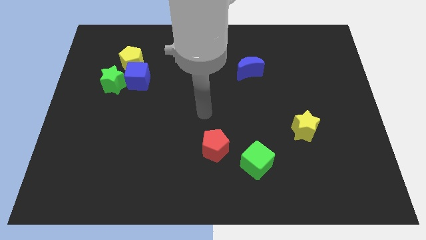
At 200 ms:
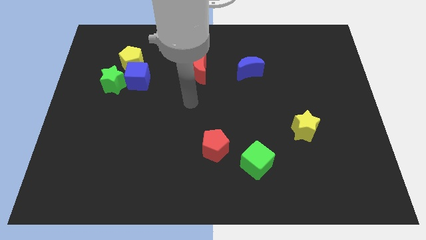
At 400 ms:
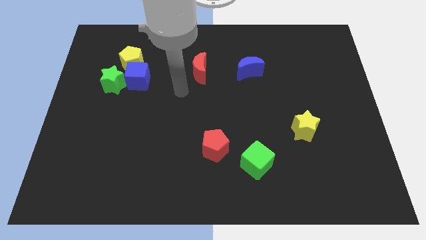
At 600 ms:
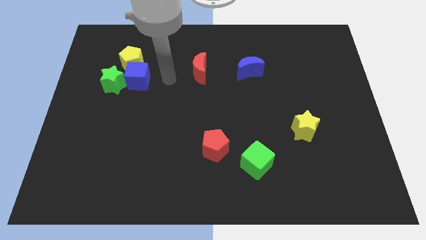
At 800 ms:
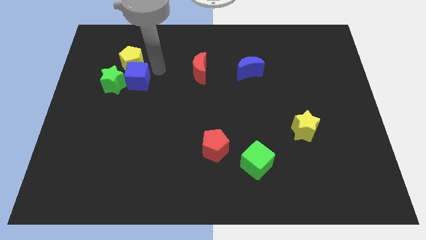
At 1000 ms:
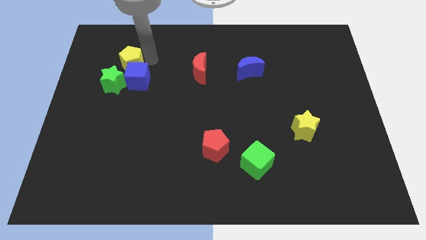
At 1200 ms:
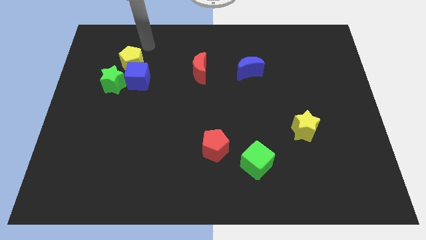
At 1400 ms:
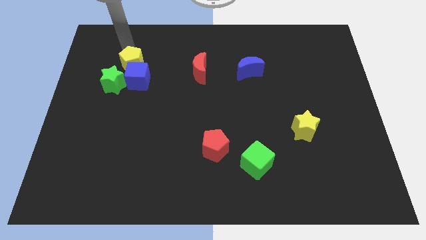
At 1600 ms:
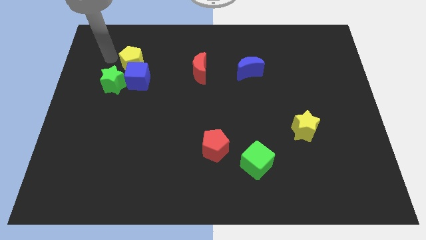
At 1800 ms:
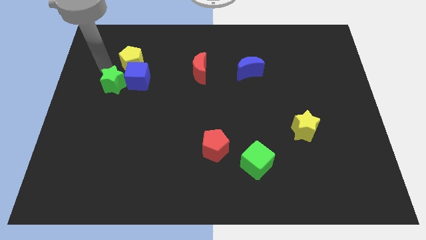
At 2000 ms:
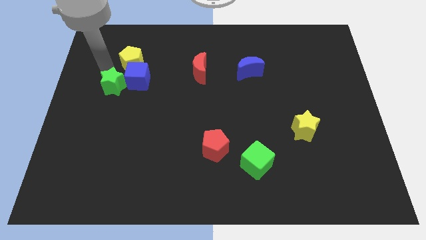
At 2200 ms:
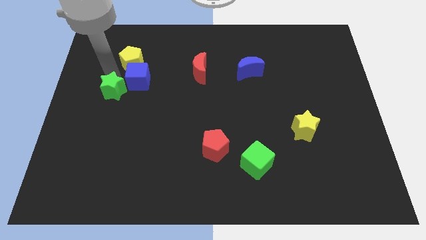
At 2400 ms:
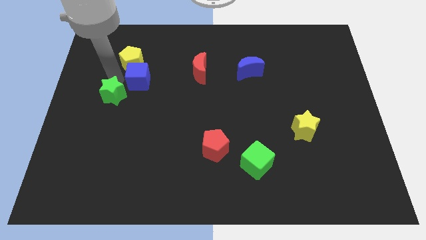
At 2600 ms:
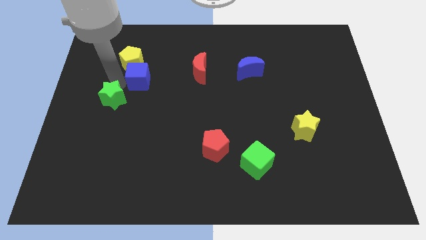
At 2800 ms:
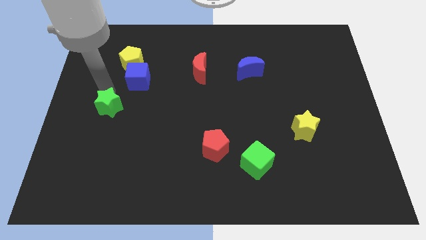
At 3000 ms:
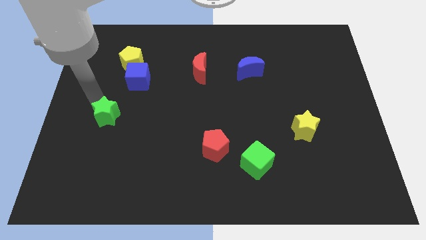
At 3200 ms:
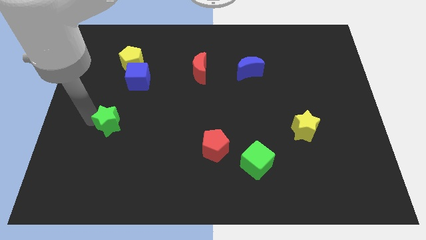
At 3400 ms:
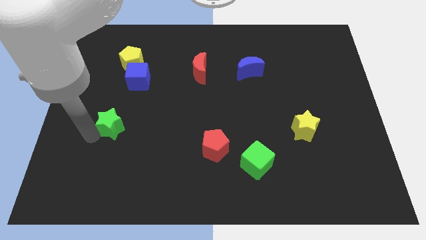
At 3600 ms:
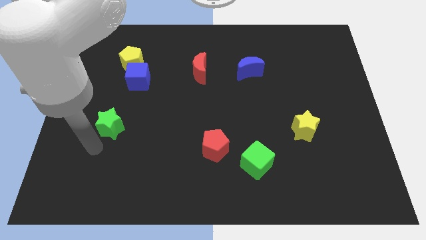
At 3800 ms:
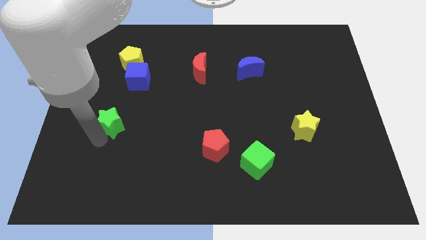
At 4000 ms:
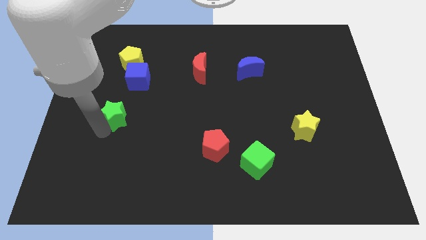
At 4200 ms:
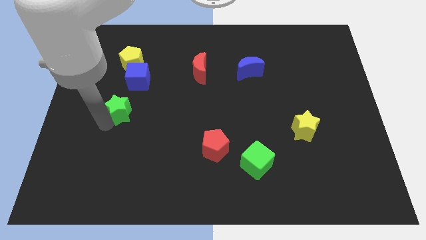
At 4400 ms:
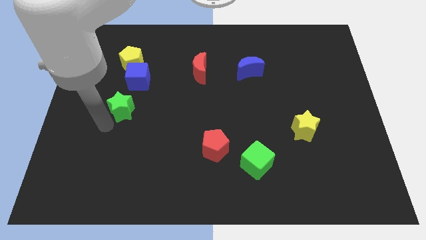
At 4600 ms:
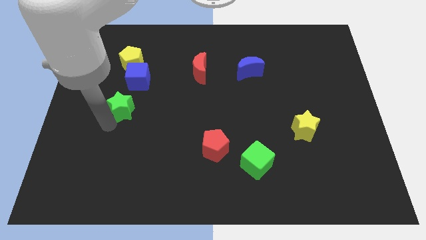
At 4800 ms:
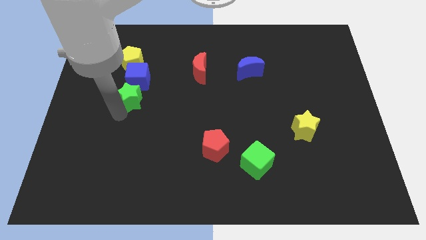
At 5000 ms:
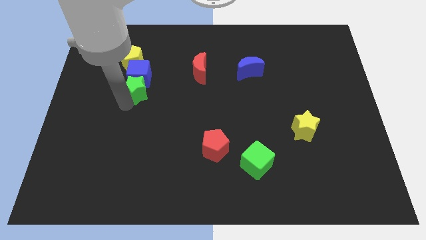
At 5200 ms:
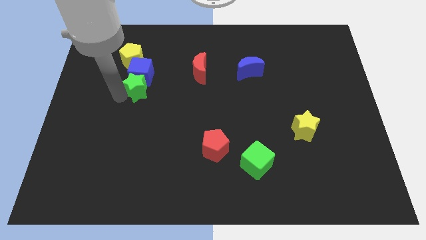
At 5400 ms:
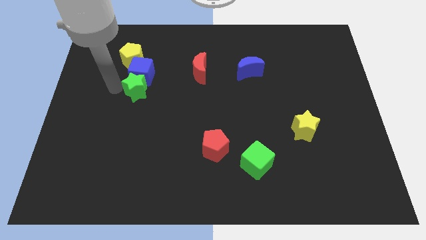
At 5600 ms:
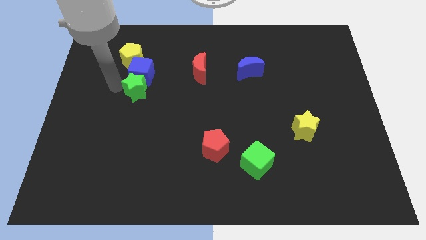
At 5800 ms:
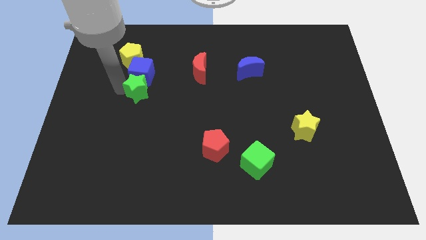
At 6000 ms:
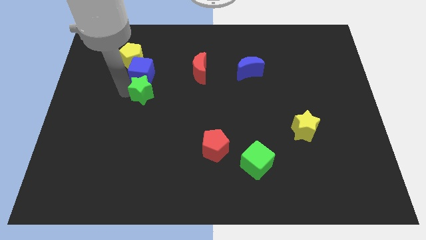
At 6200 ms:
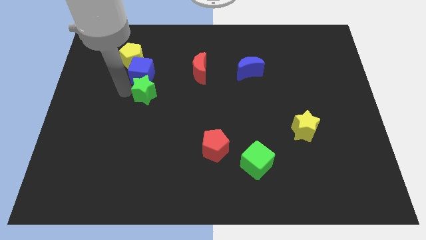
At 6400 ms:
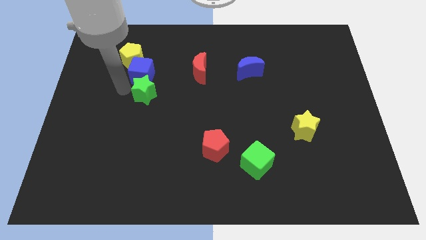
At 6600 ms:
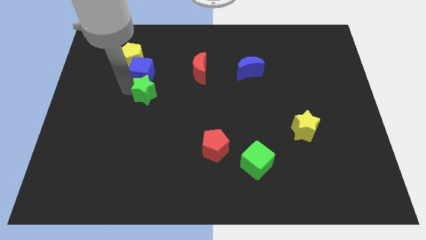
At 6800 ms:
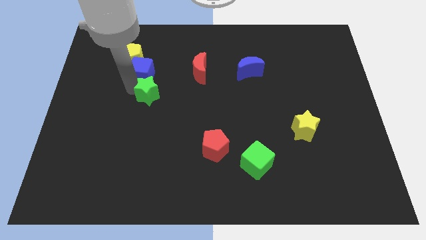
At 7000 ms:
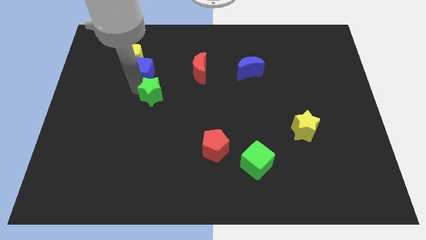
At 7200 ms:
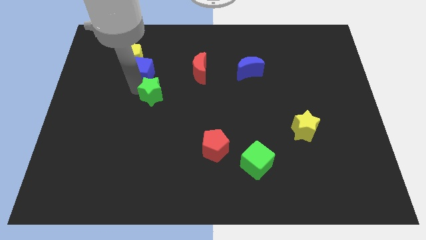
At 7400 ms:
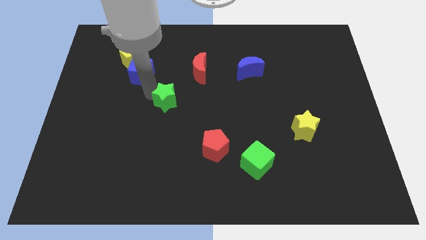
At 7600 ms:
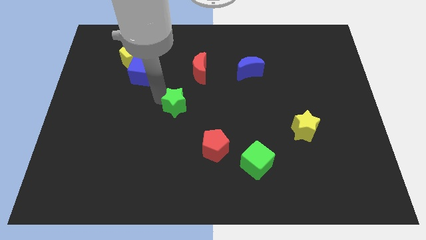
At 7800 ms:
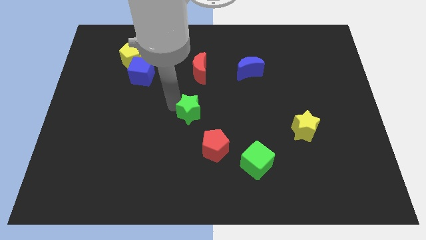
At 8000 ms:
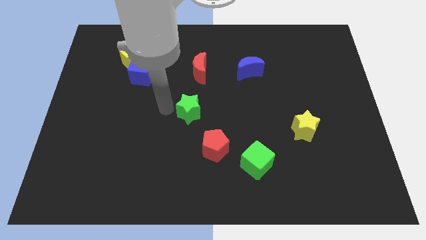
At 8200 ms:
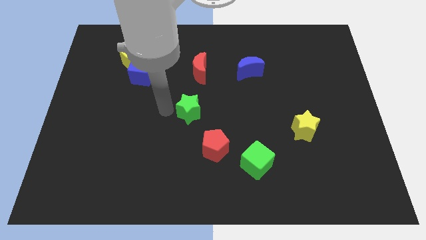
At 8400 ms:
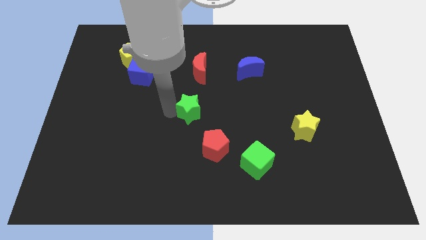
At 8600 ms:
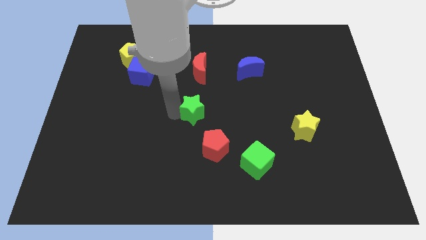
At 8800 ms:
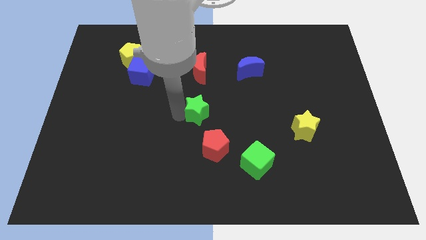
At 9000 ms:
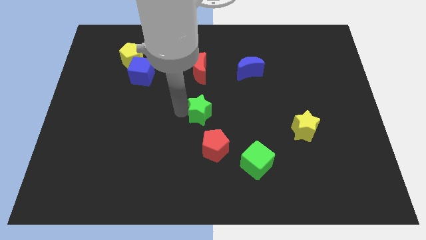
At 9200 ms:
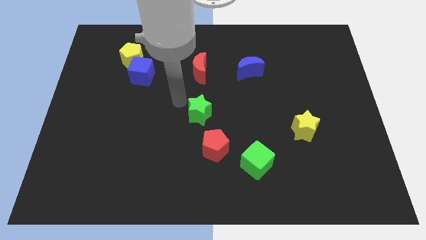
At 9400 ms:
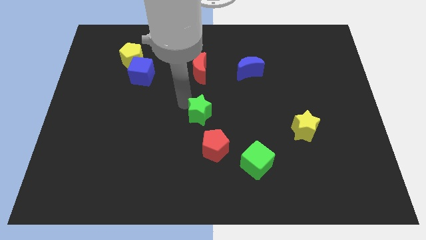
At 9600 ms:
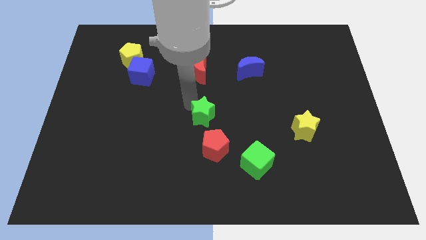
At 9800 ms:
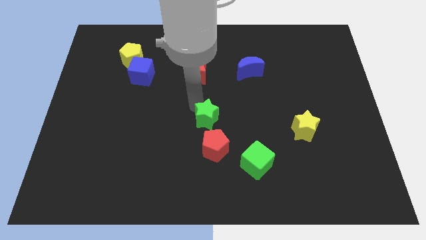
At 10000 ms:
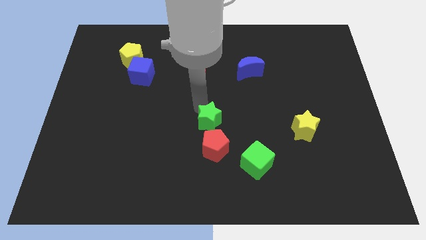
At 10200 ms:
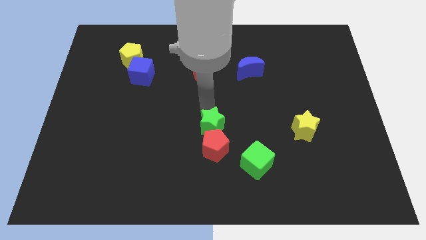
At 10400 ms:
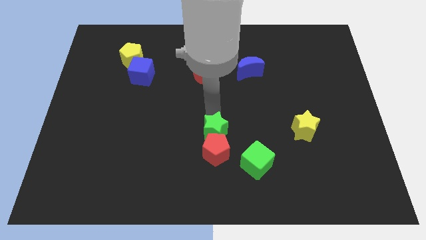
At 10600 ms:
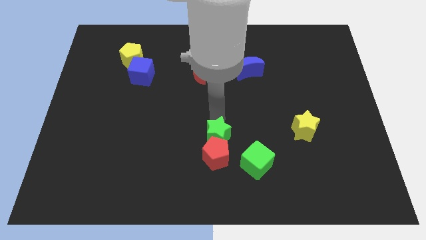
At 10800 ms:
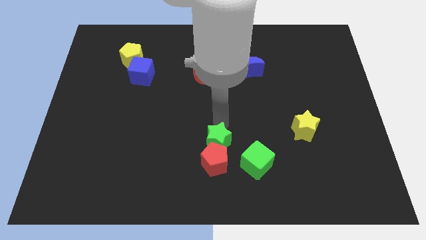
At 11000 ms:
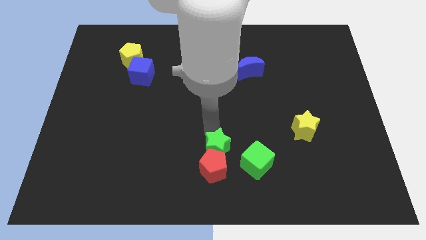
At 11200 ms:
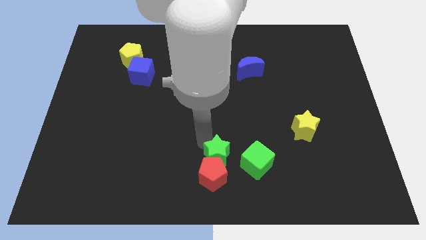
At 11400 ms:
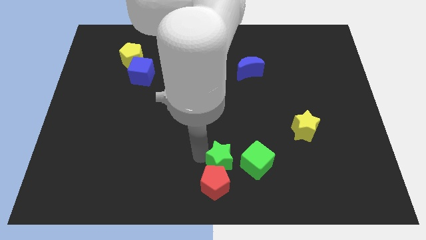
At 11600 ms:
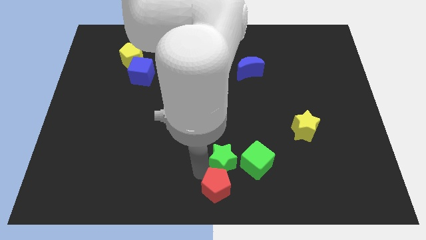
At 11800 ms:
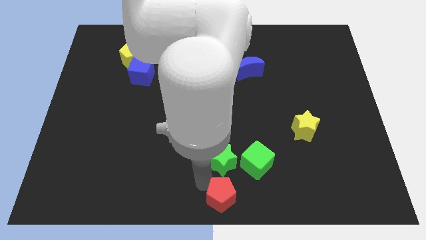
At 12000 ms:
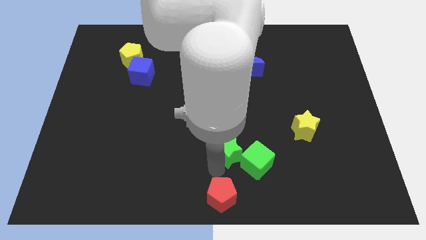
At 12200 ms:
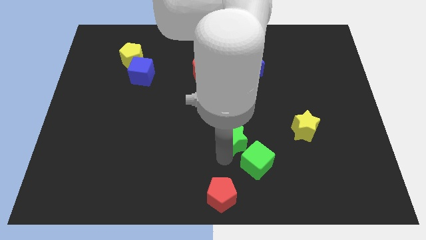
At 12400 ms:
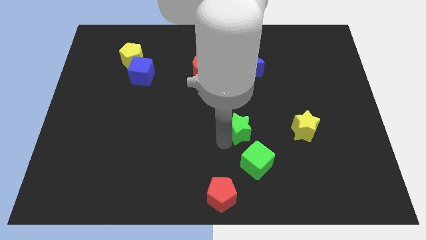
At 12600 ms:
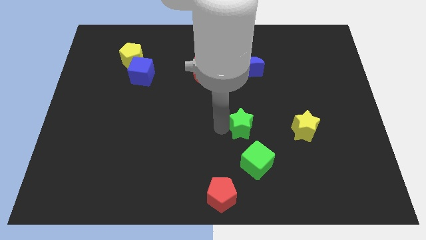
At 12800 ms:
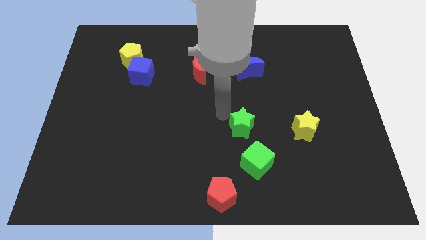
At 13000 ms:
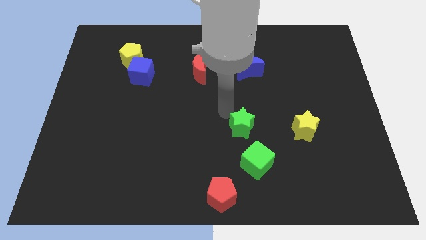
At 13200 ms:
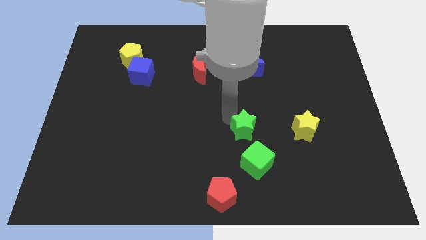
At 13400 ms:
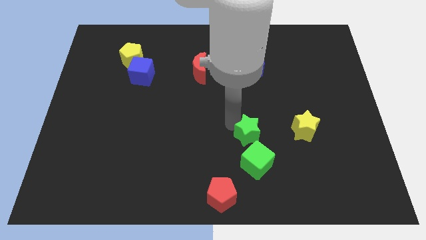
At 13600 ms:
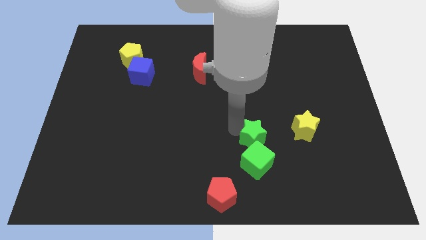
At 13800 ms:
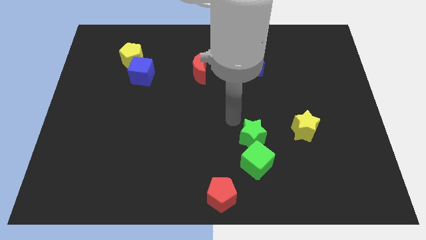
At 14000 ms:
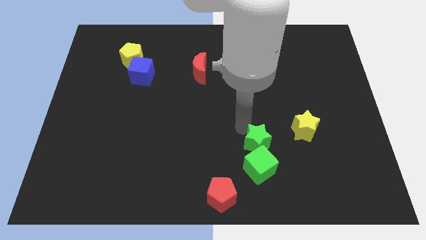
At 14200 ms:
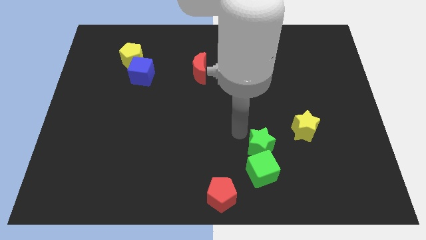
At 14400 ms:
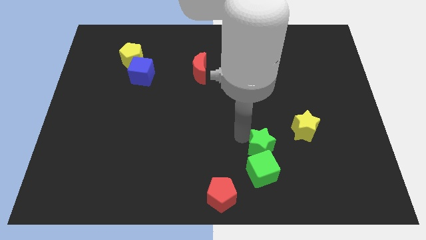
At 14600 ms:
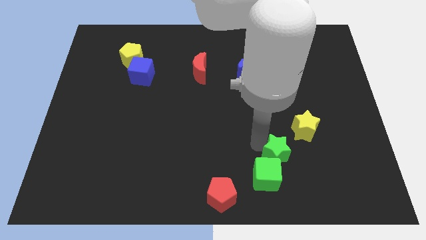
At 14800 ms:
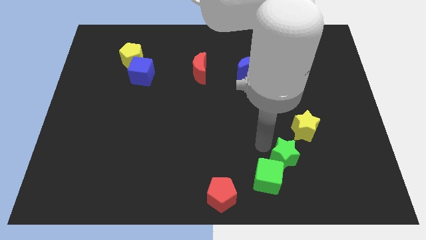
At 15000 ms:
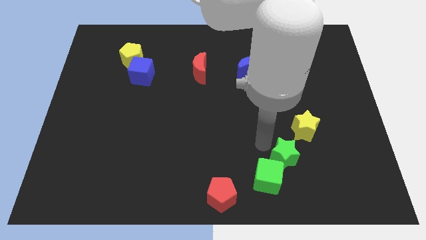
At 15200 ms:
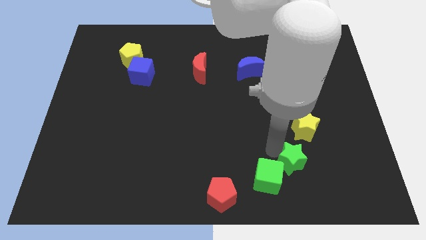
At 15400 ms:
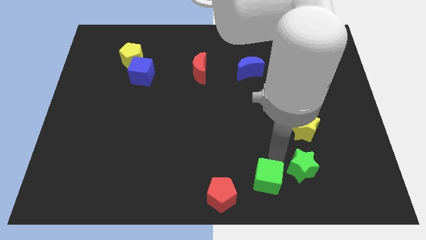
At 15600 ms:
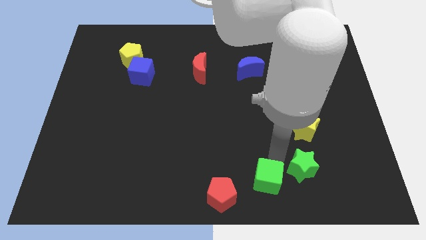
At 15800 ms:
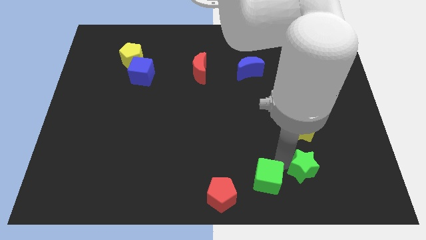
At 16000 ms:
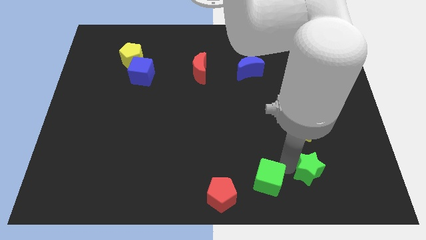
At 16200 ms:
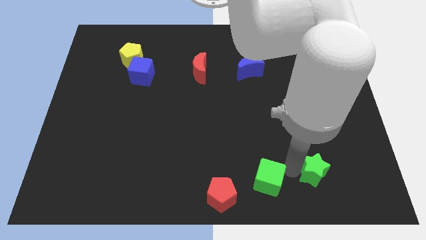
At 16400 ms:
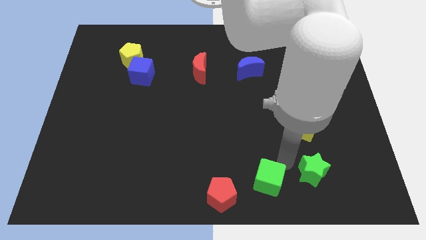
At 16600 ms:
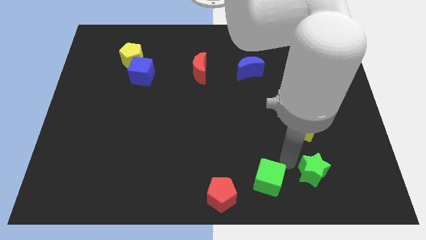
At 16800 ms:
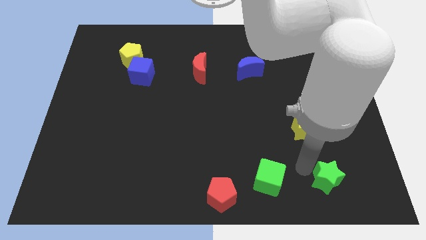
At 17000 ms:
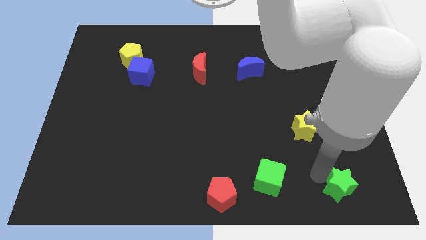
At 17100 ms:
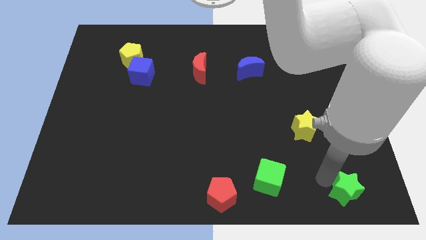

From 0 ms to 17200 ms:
push the green star to the lower right corner
